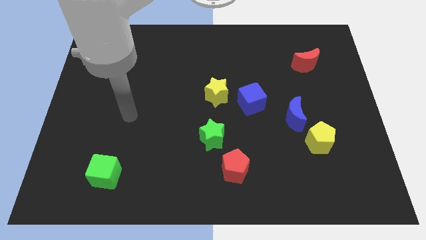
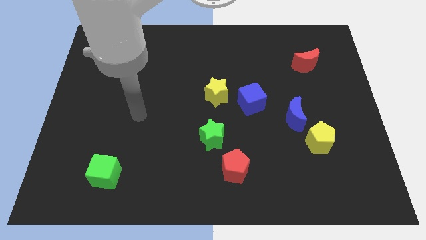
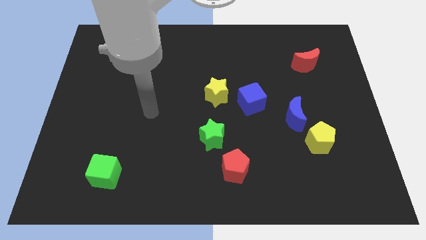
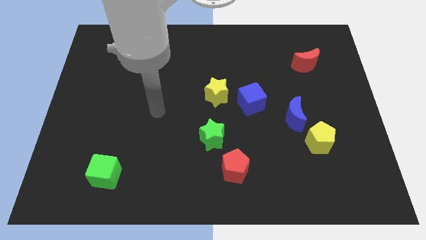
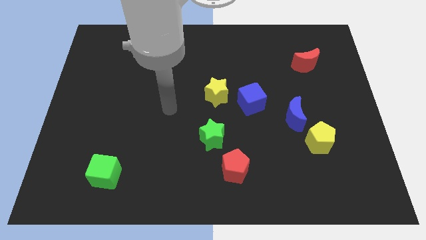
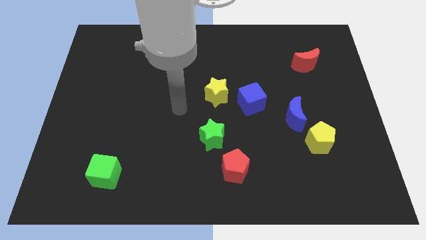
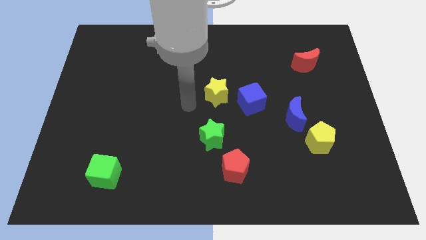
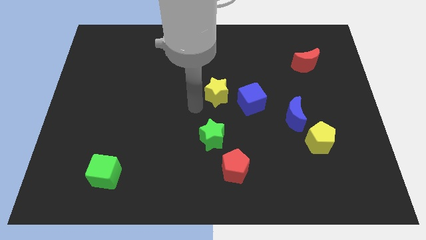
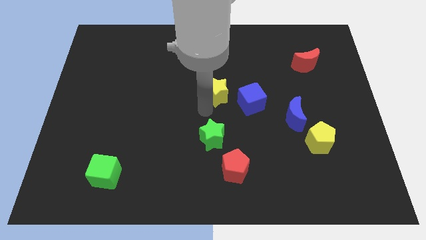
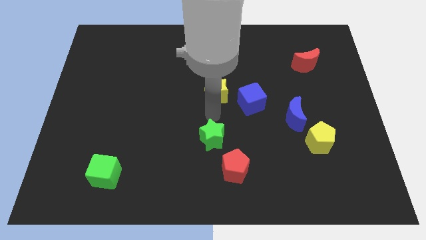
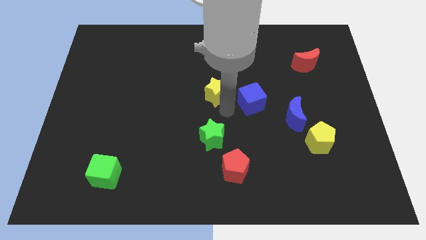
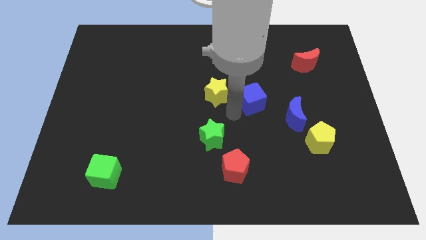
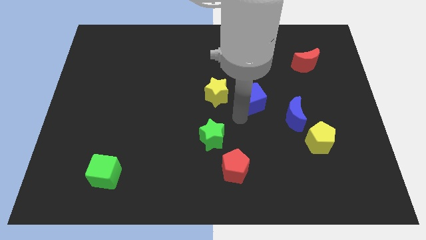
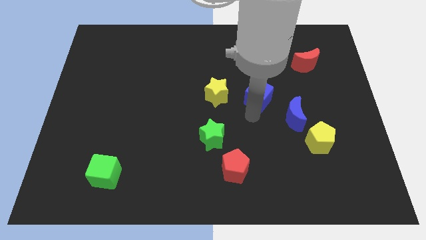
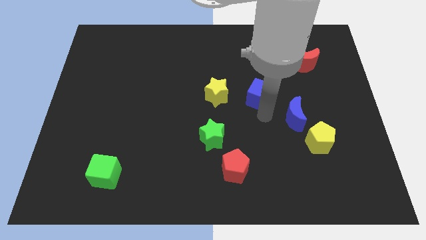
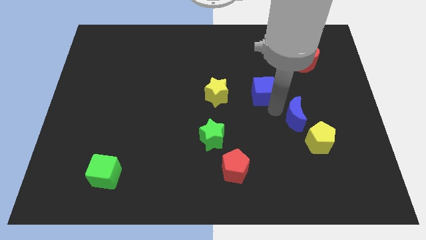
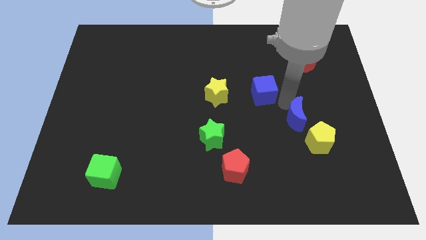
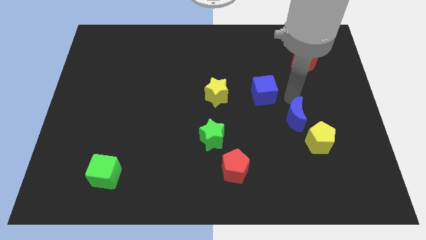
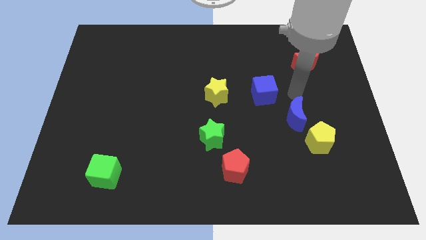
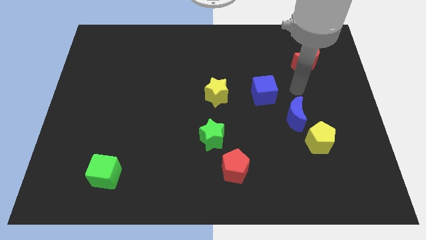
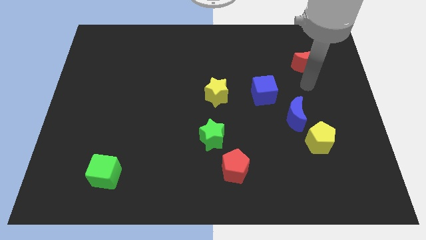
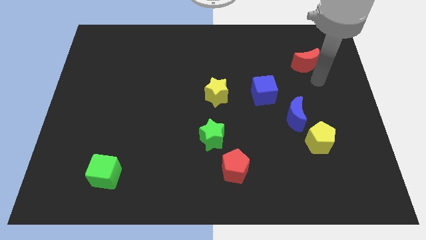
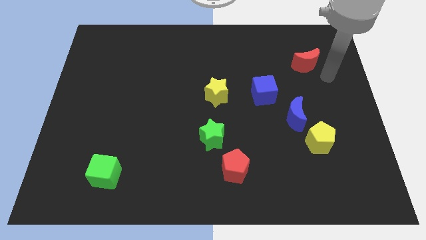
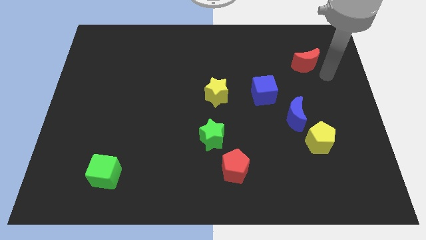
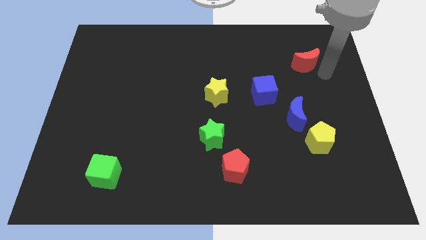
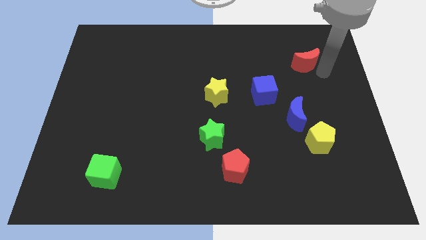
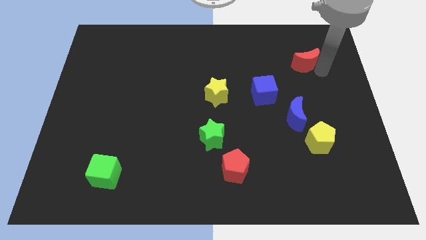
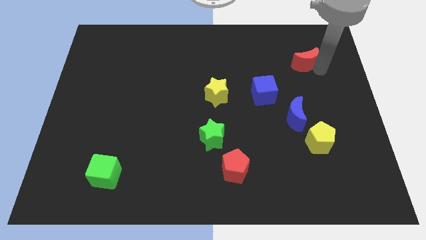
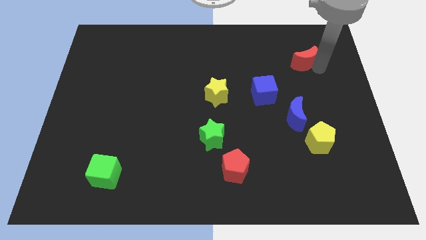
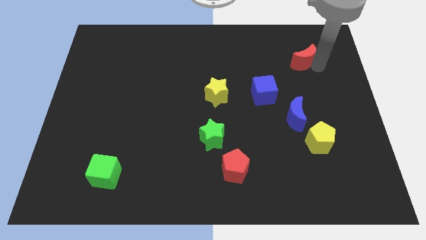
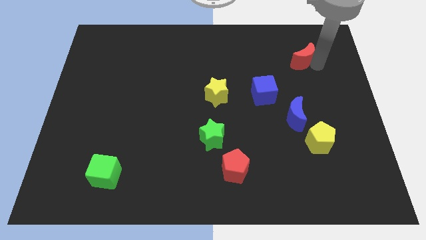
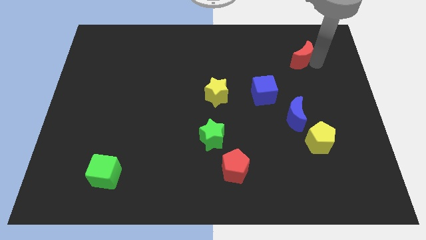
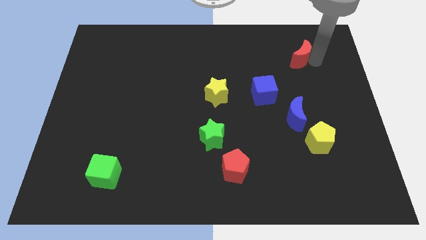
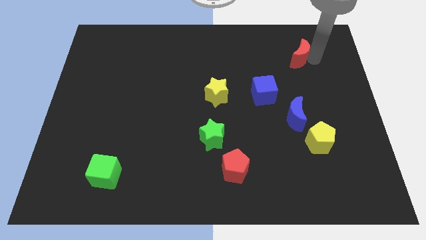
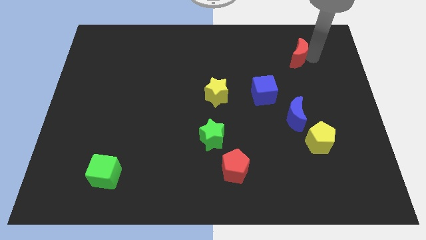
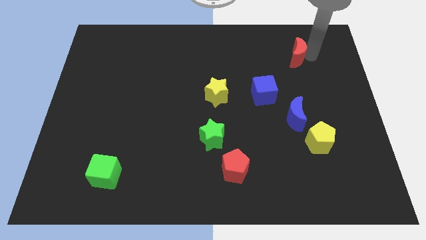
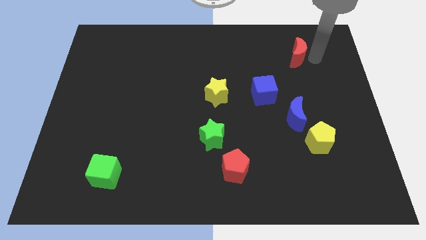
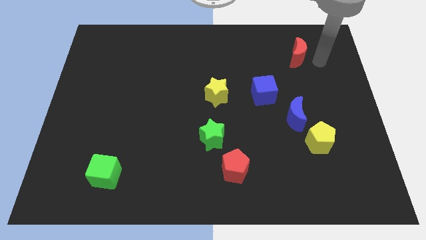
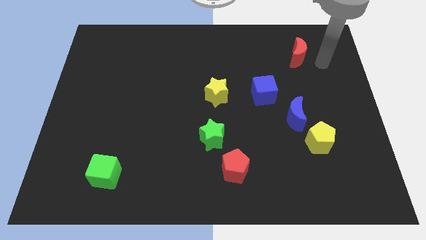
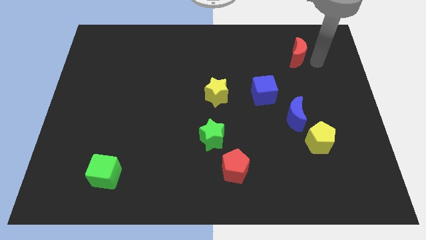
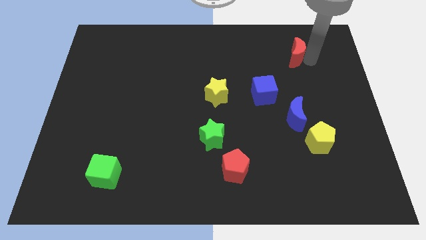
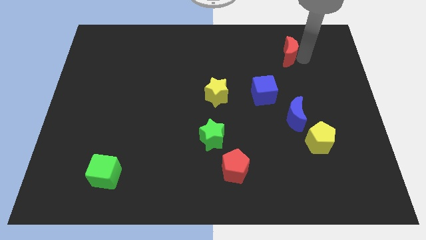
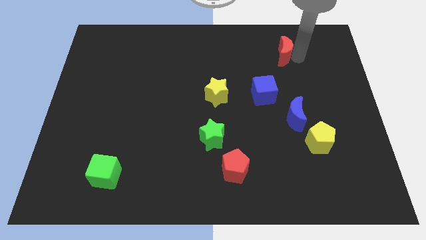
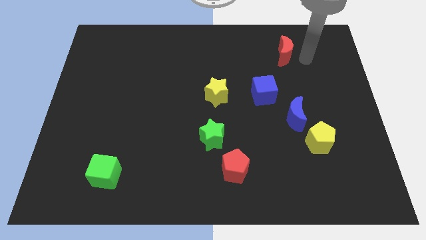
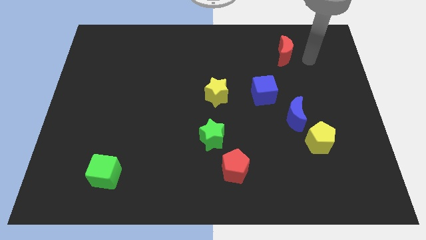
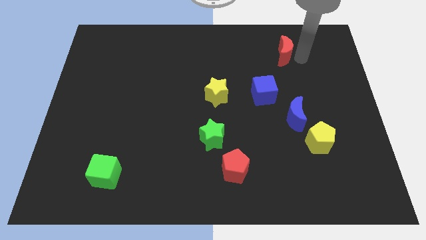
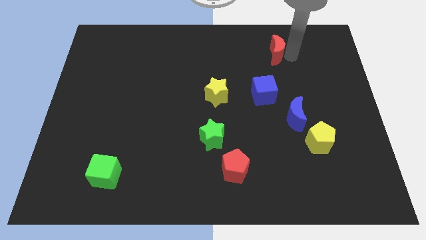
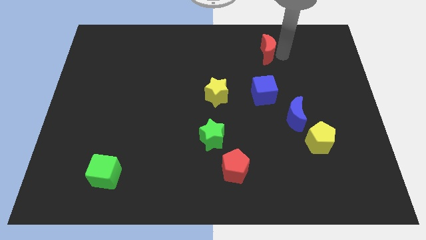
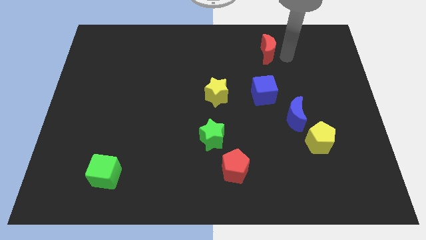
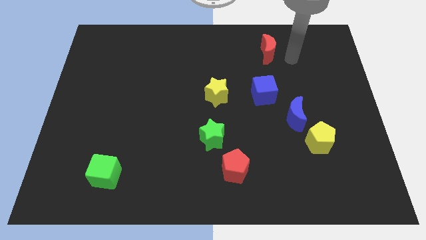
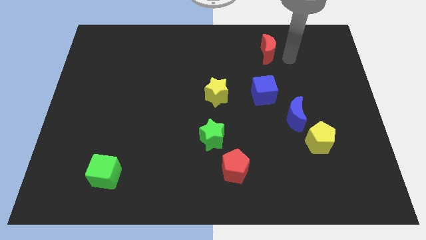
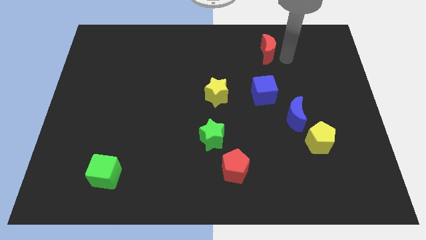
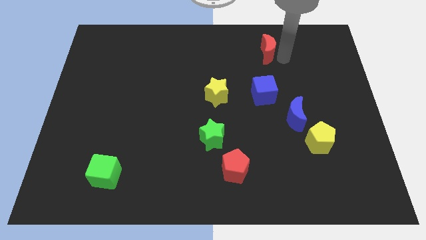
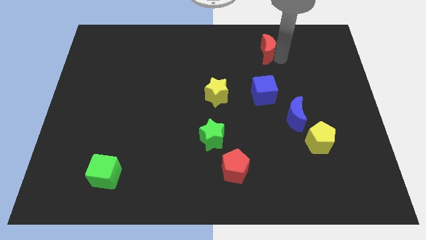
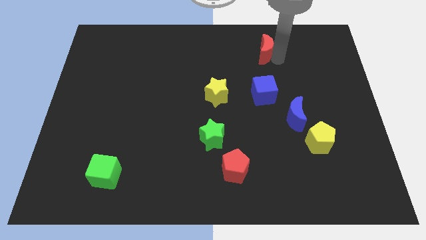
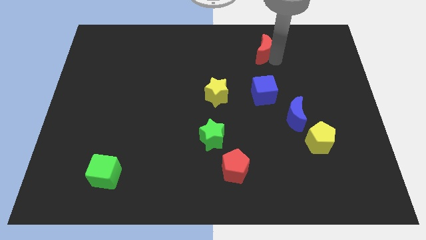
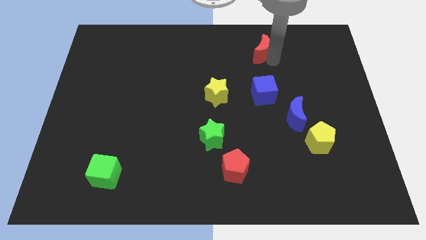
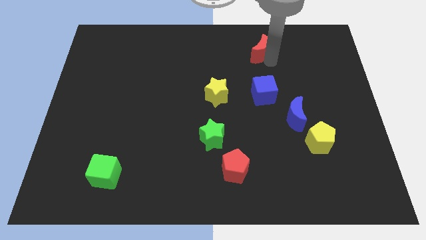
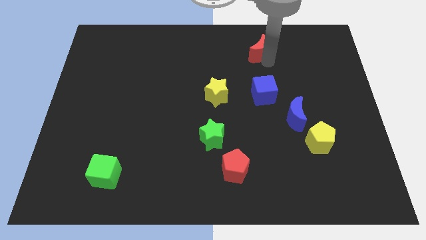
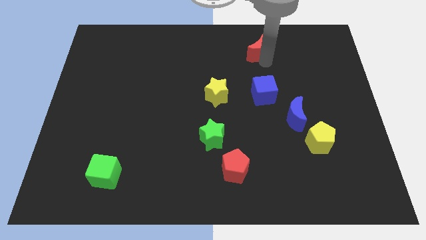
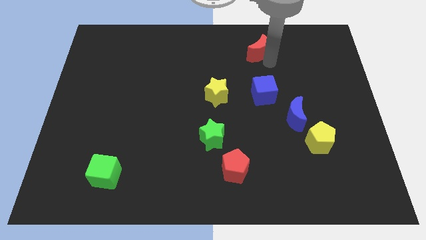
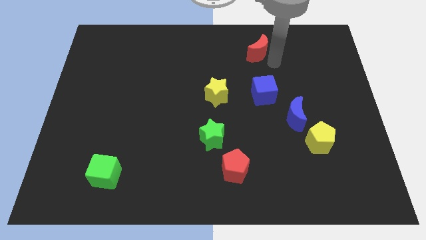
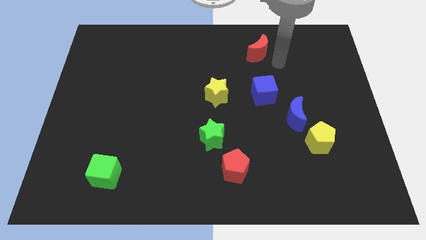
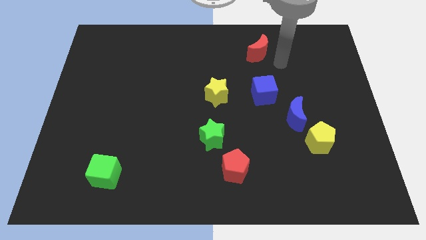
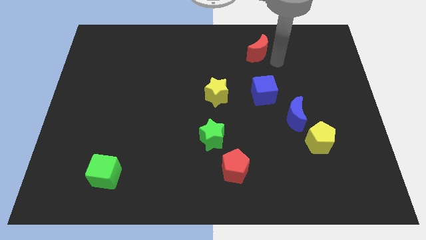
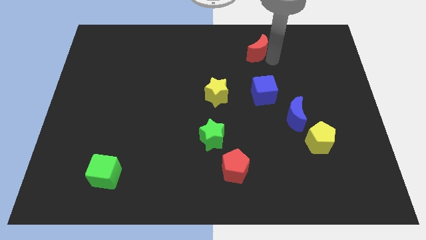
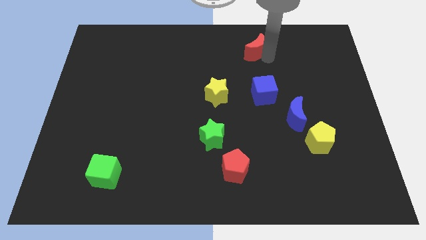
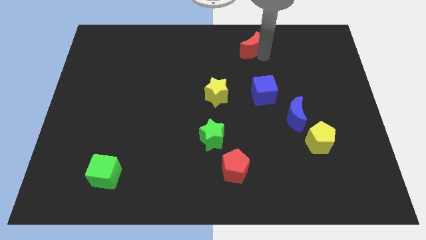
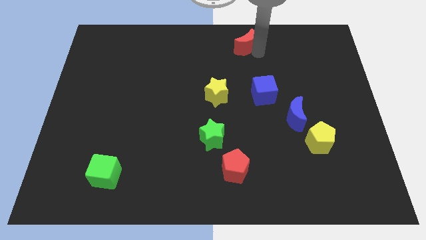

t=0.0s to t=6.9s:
move the red moon to the top

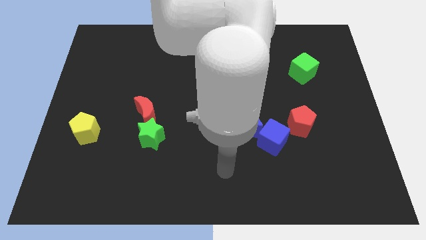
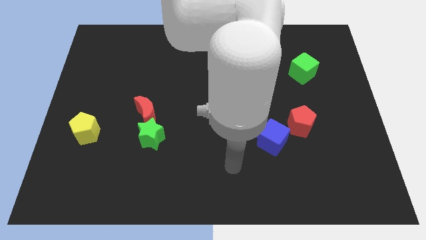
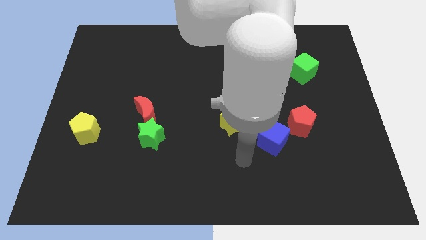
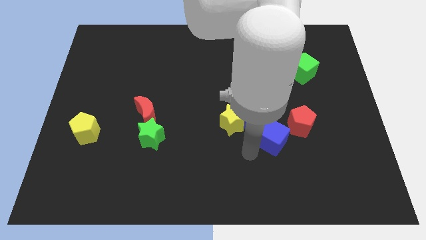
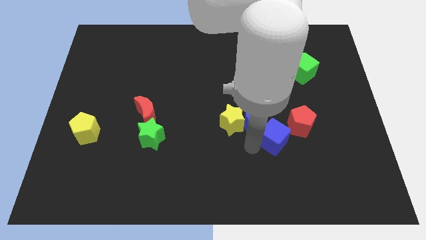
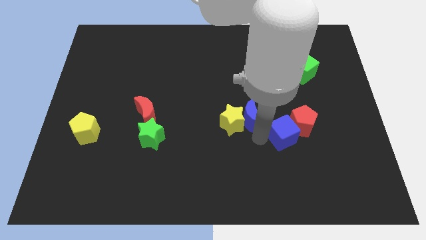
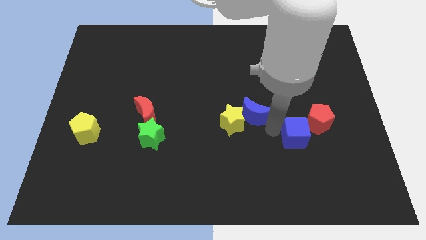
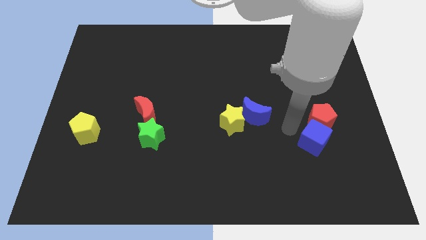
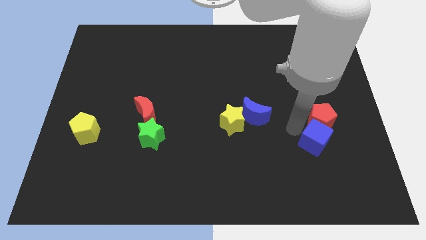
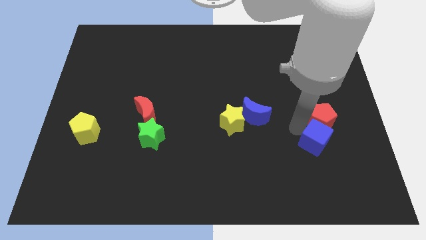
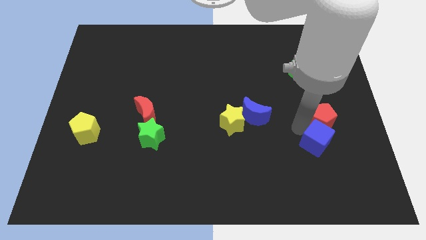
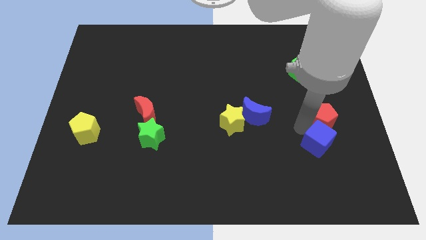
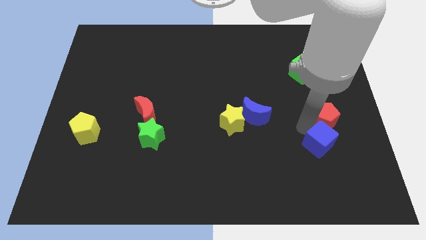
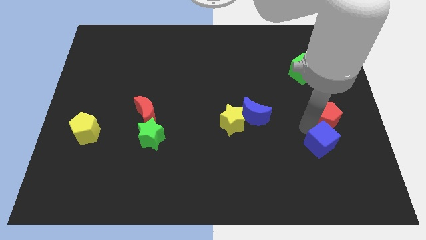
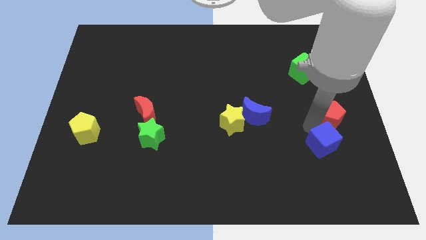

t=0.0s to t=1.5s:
slide the red pentagon to the center right
